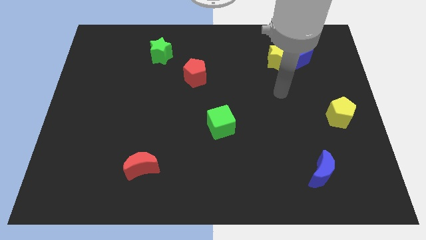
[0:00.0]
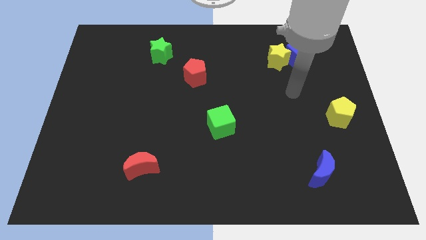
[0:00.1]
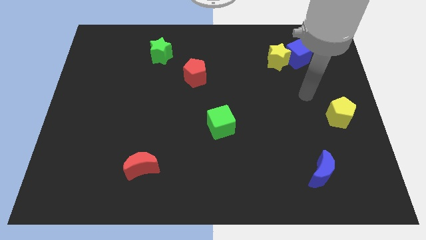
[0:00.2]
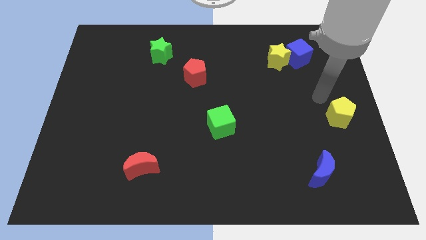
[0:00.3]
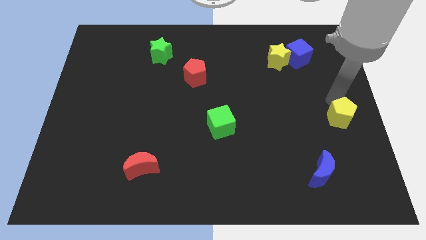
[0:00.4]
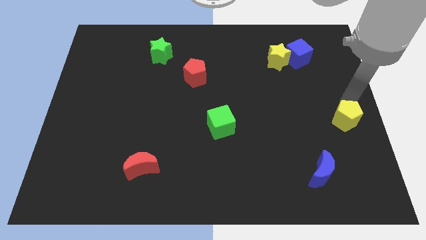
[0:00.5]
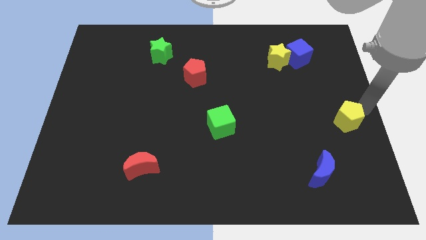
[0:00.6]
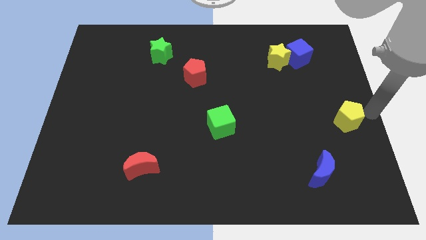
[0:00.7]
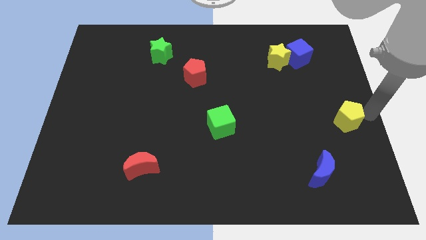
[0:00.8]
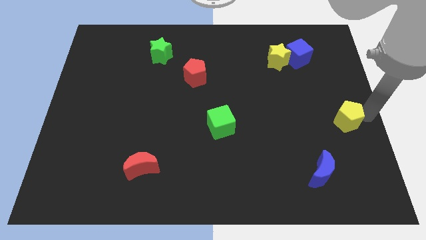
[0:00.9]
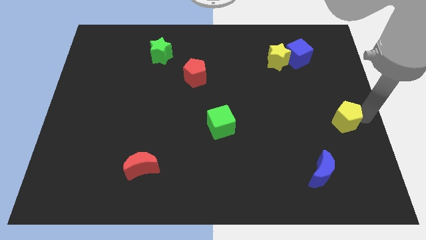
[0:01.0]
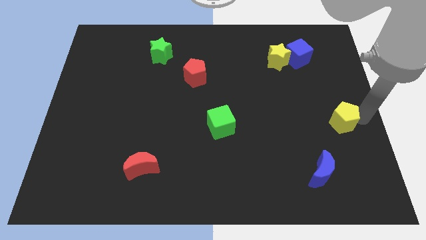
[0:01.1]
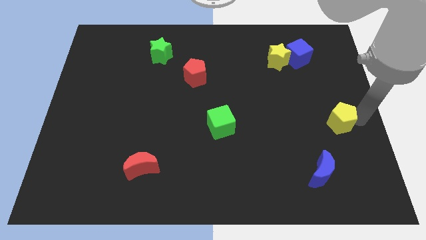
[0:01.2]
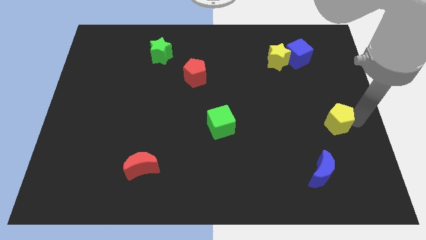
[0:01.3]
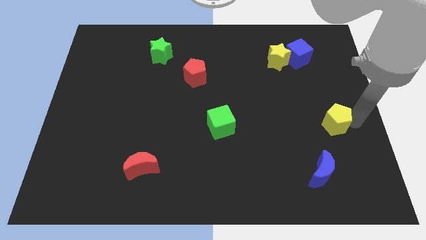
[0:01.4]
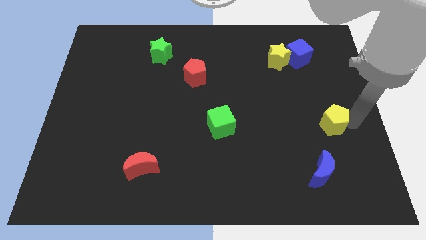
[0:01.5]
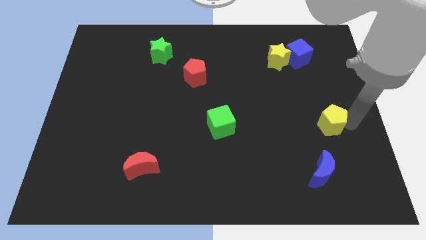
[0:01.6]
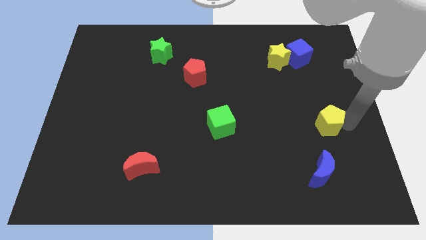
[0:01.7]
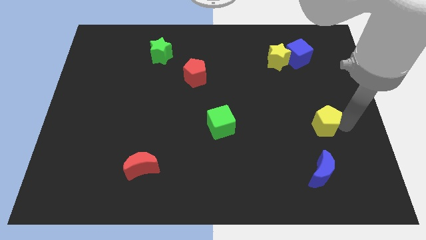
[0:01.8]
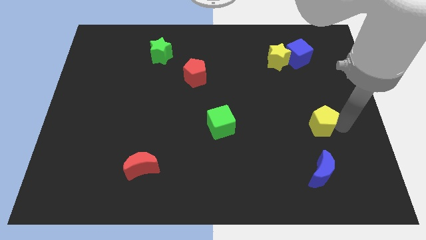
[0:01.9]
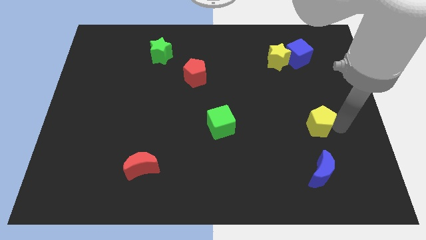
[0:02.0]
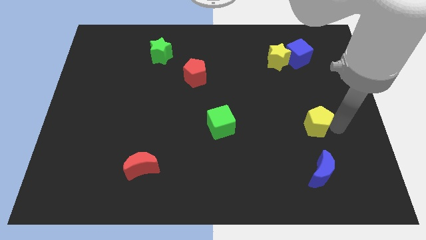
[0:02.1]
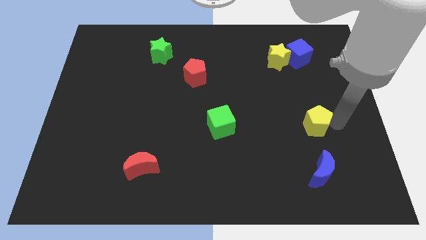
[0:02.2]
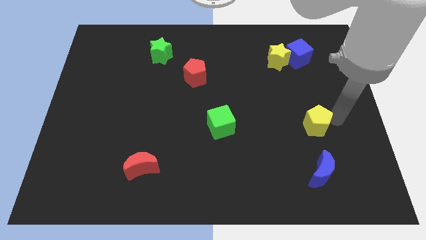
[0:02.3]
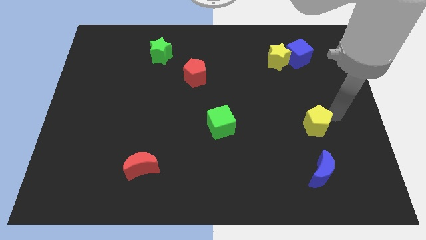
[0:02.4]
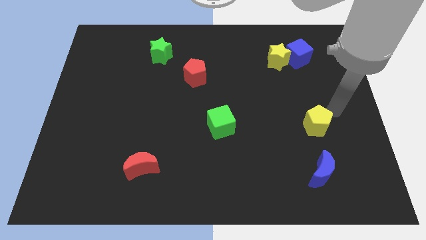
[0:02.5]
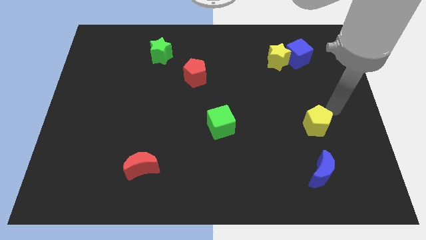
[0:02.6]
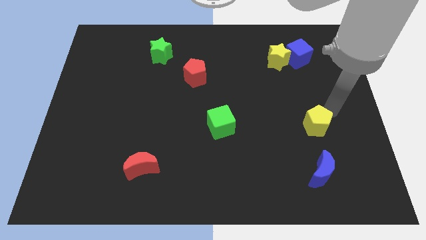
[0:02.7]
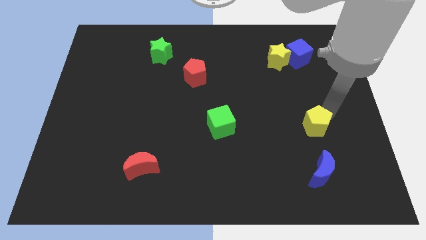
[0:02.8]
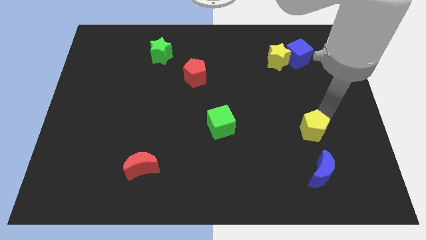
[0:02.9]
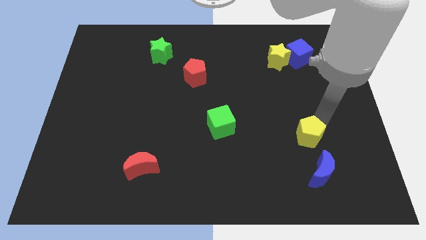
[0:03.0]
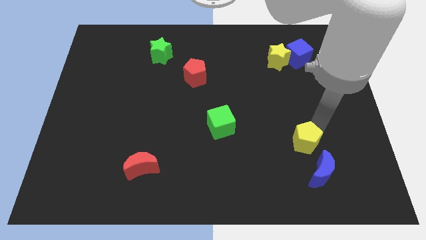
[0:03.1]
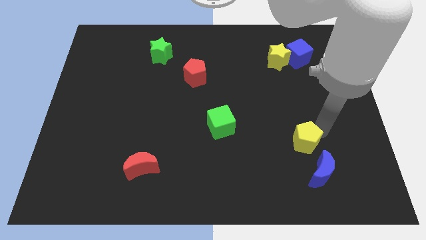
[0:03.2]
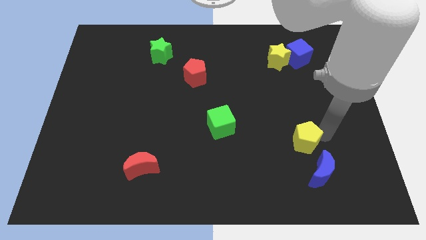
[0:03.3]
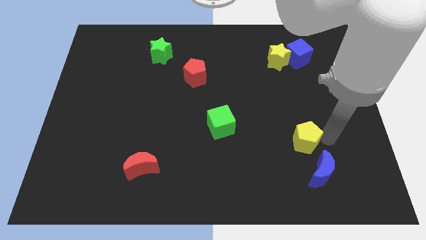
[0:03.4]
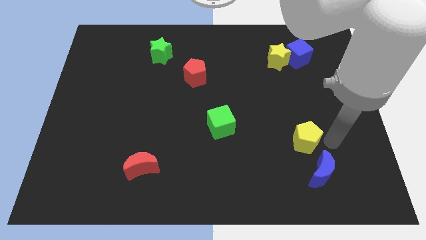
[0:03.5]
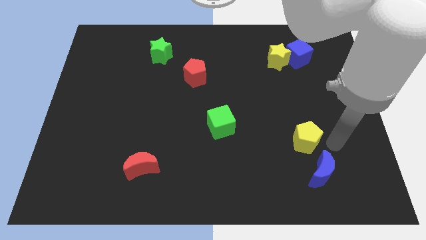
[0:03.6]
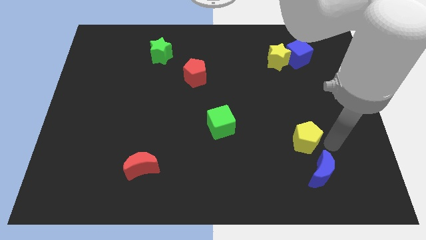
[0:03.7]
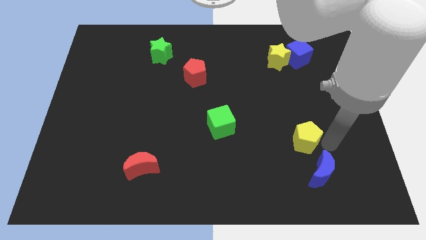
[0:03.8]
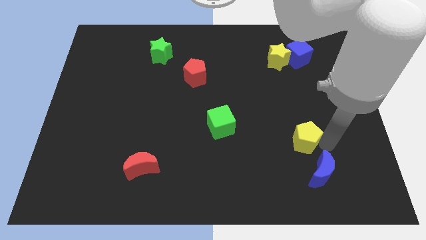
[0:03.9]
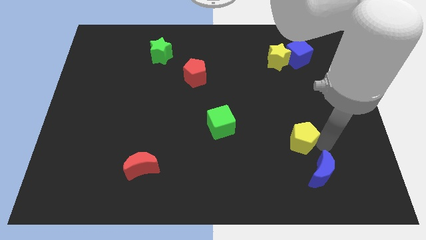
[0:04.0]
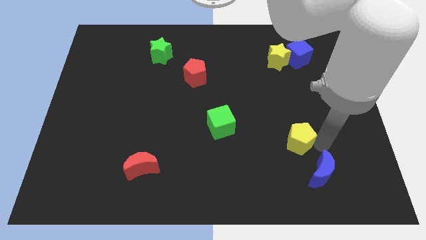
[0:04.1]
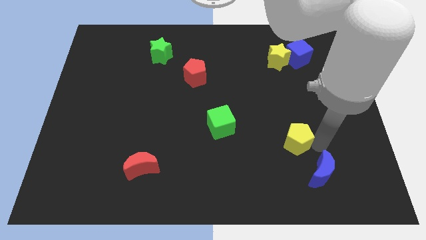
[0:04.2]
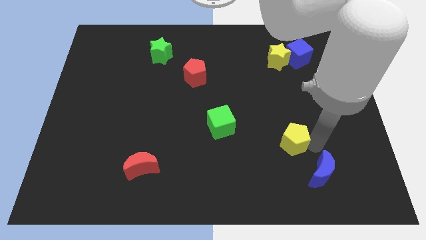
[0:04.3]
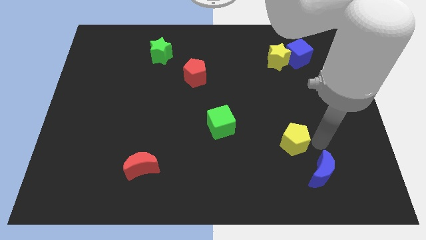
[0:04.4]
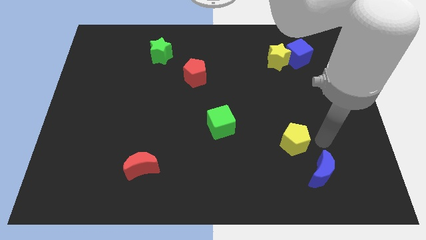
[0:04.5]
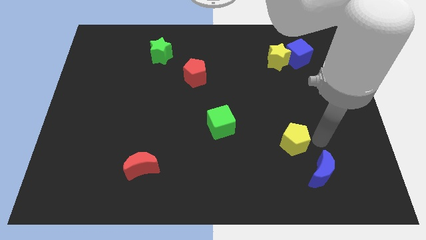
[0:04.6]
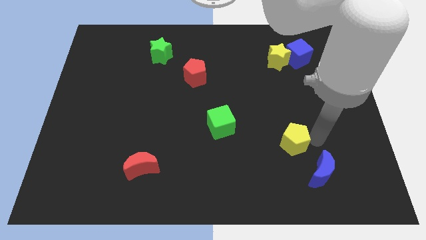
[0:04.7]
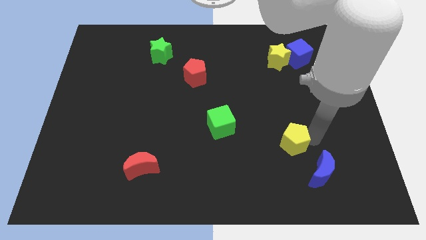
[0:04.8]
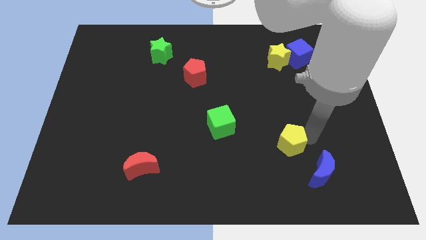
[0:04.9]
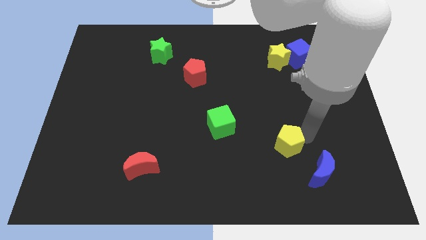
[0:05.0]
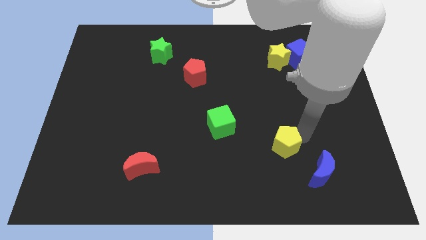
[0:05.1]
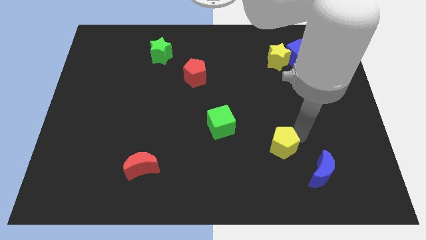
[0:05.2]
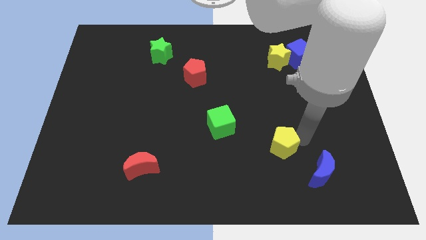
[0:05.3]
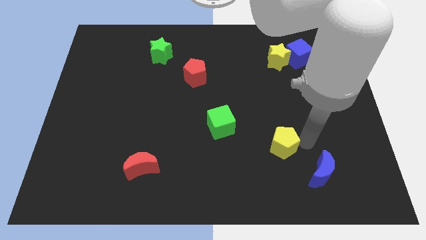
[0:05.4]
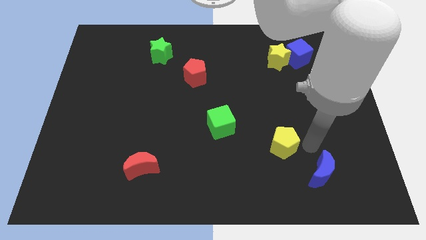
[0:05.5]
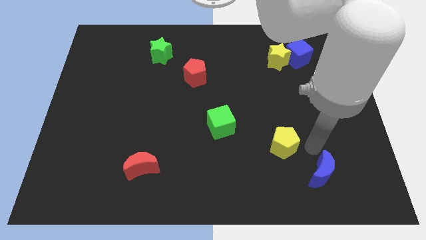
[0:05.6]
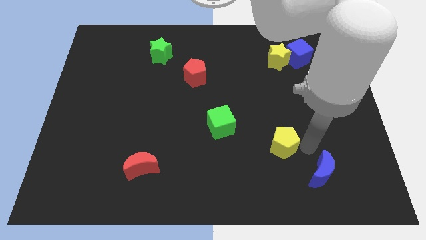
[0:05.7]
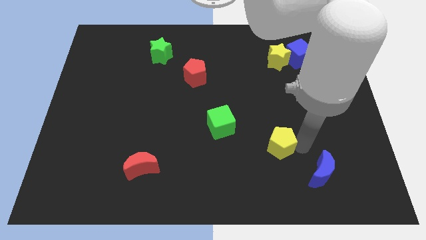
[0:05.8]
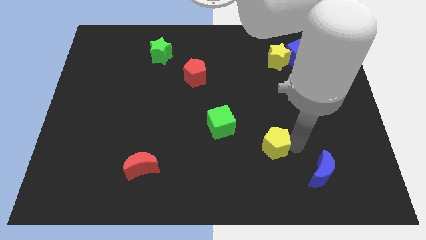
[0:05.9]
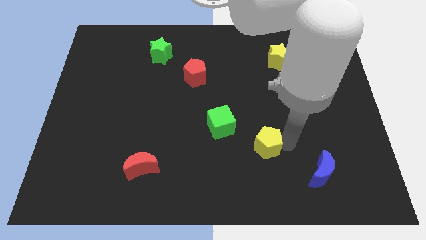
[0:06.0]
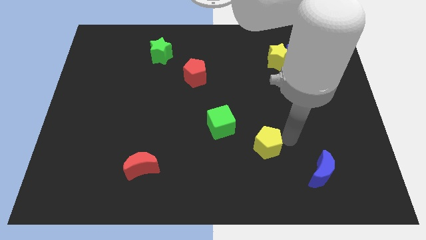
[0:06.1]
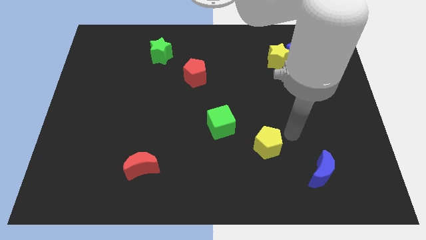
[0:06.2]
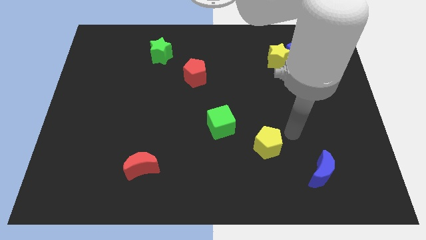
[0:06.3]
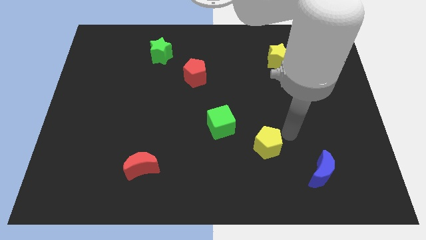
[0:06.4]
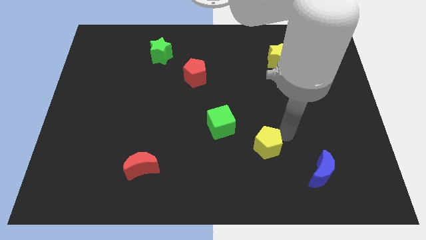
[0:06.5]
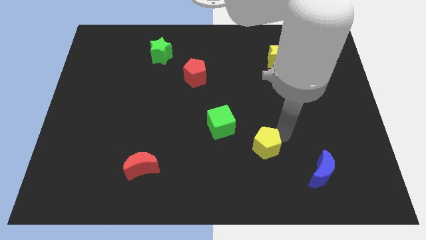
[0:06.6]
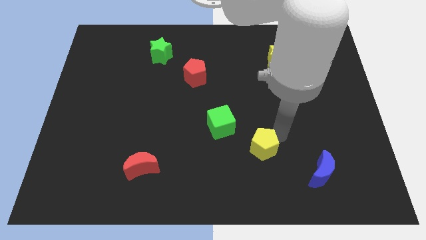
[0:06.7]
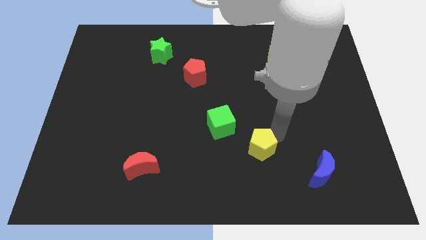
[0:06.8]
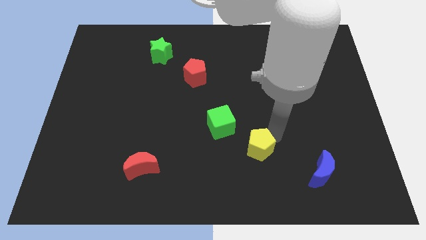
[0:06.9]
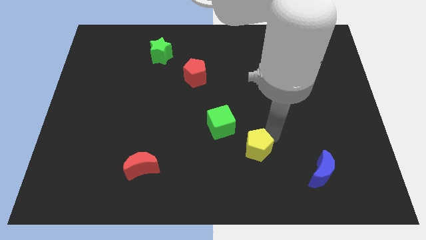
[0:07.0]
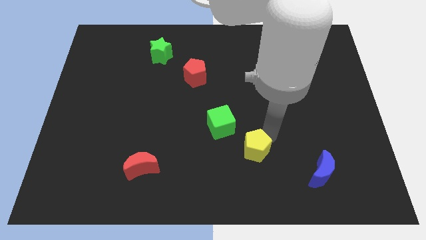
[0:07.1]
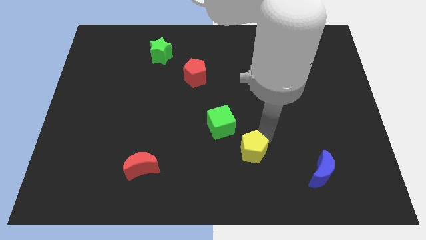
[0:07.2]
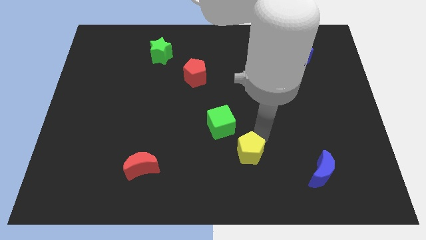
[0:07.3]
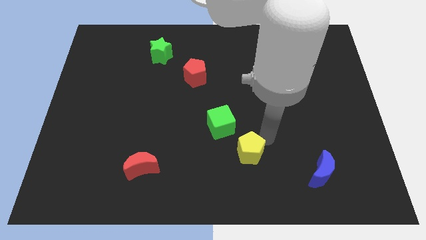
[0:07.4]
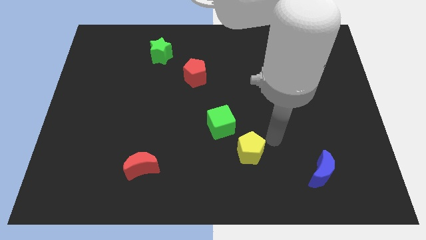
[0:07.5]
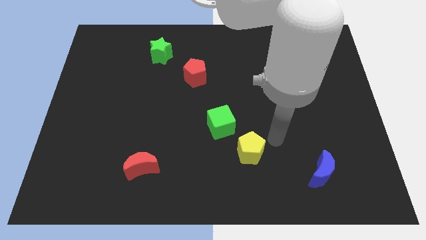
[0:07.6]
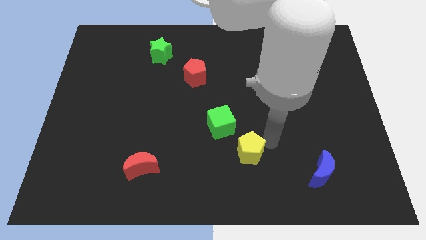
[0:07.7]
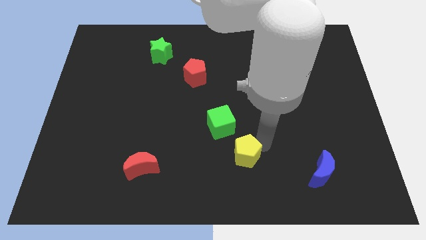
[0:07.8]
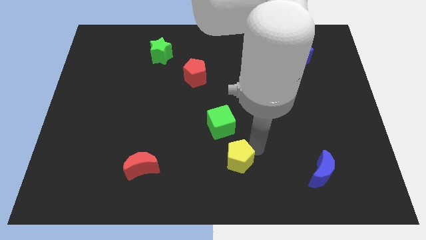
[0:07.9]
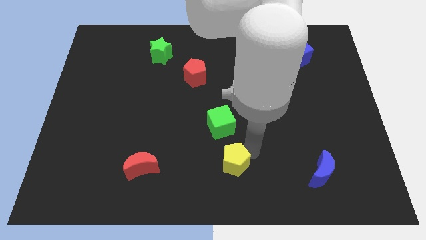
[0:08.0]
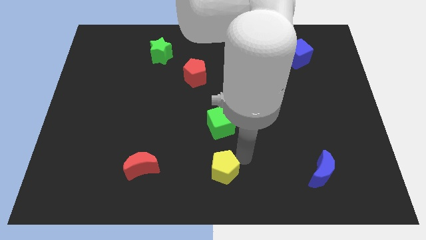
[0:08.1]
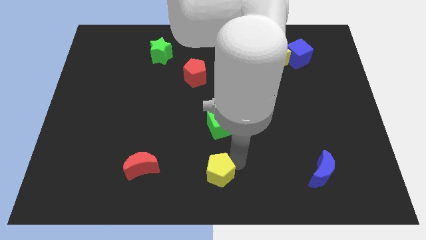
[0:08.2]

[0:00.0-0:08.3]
slide the yellow pentagon to the right of the red moon
